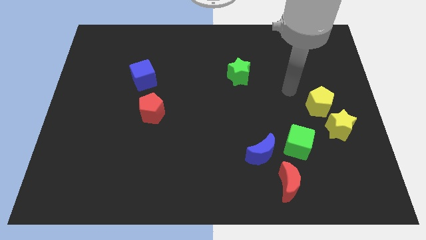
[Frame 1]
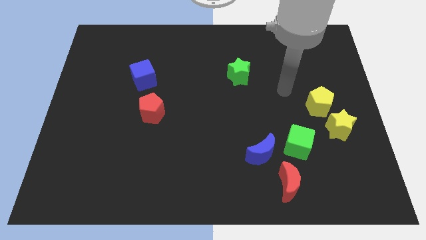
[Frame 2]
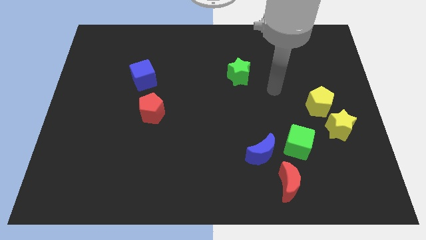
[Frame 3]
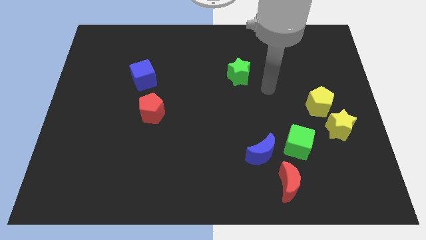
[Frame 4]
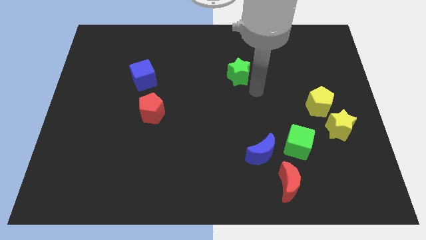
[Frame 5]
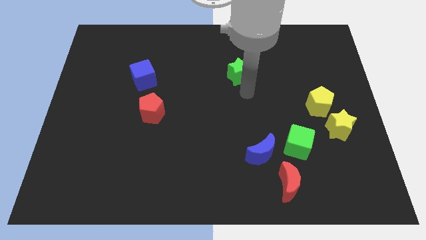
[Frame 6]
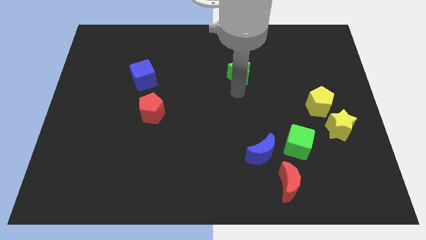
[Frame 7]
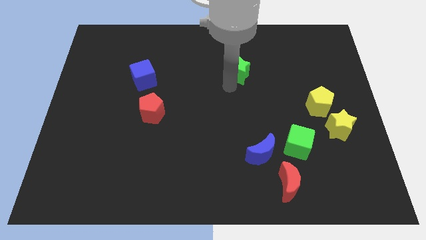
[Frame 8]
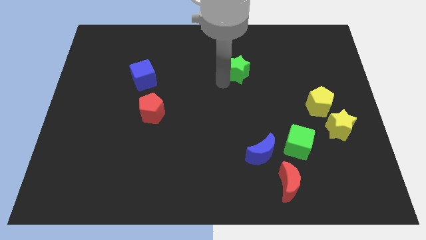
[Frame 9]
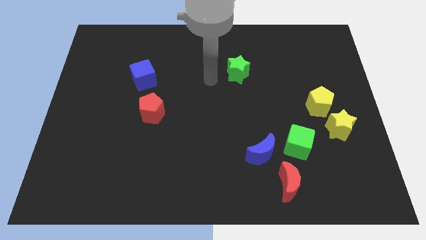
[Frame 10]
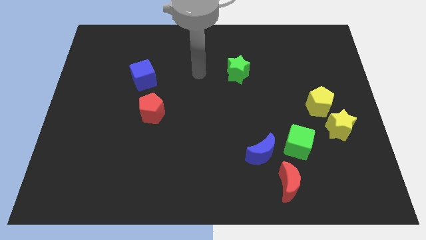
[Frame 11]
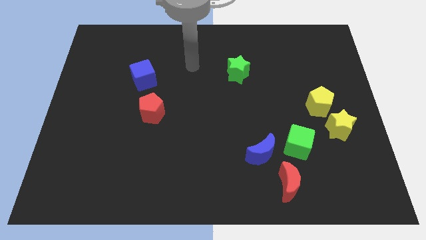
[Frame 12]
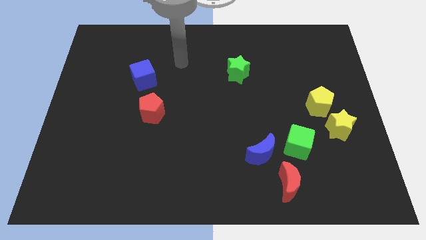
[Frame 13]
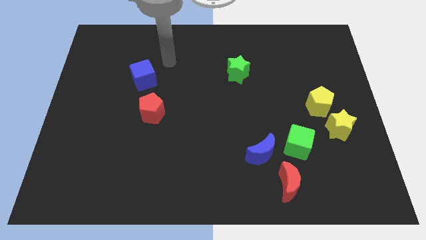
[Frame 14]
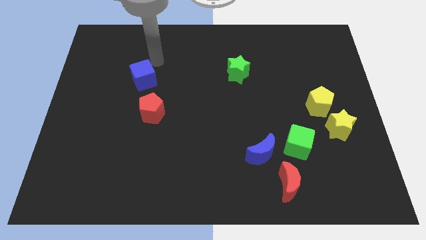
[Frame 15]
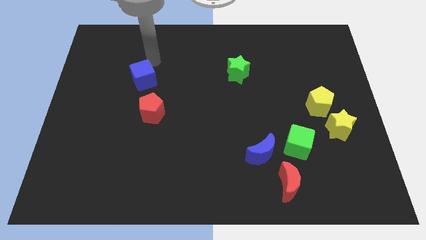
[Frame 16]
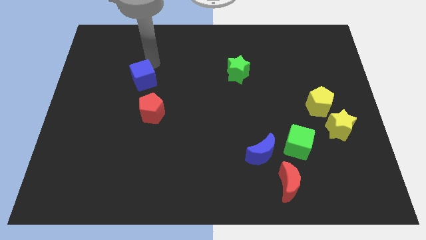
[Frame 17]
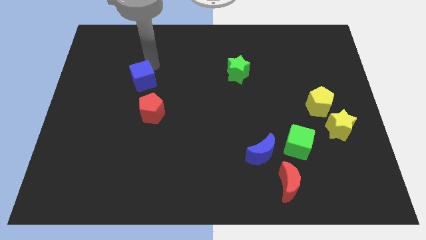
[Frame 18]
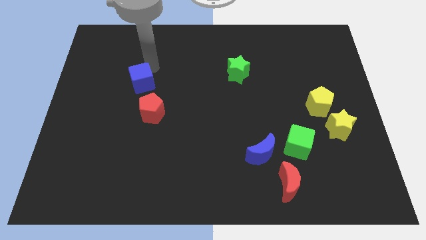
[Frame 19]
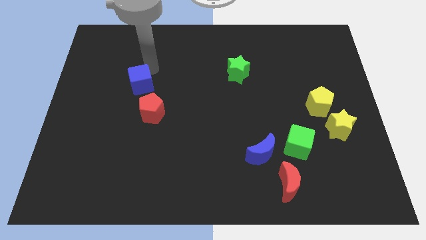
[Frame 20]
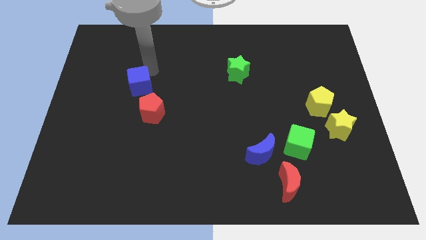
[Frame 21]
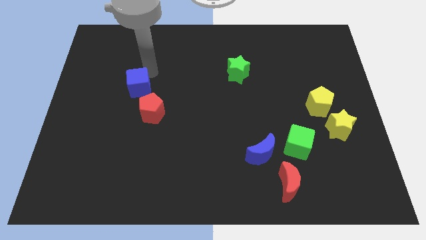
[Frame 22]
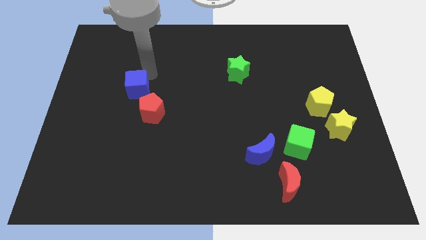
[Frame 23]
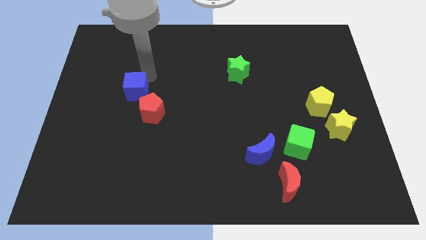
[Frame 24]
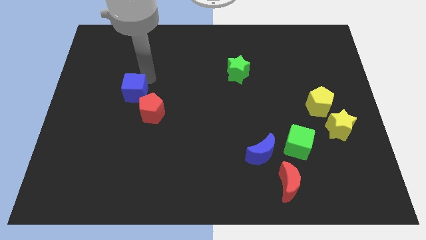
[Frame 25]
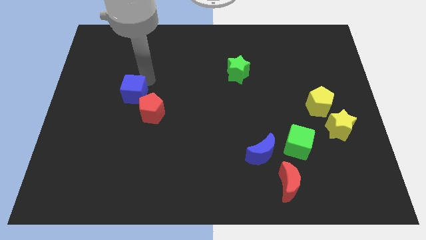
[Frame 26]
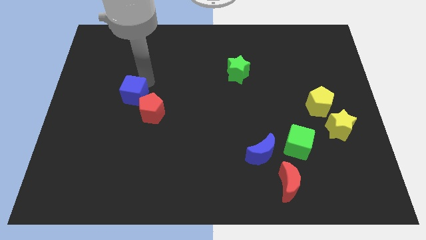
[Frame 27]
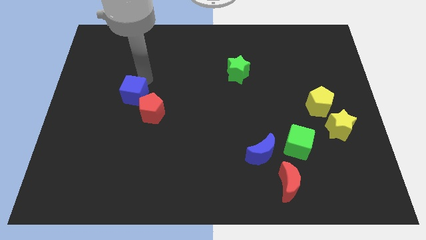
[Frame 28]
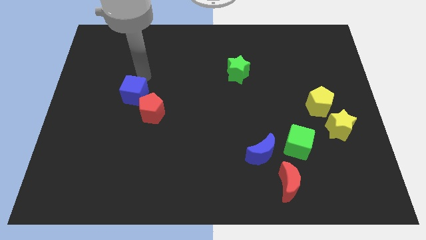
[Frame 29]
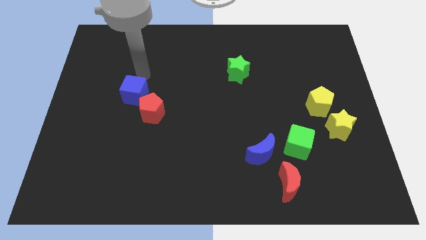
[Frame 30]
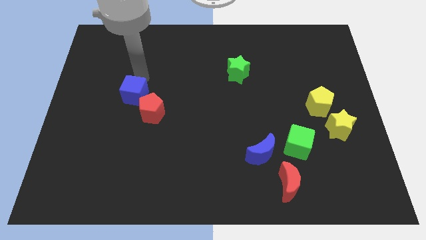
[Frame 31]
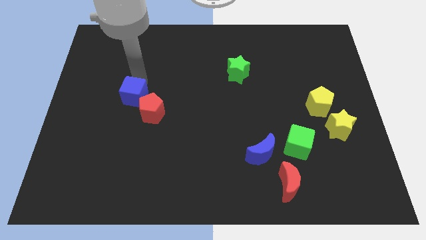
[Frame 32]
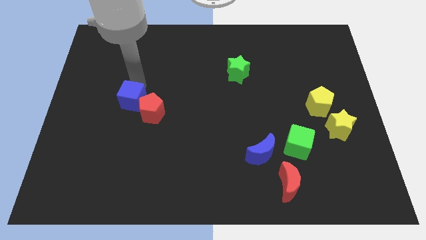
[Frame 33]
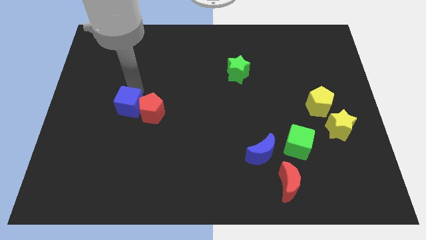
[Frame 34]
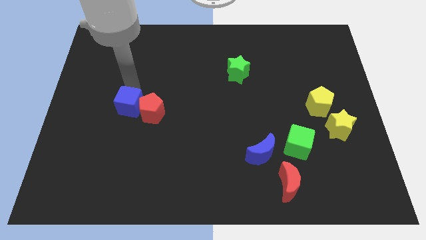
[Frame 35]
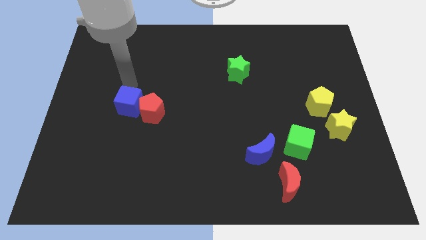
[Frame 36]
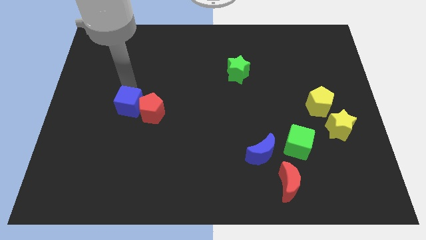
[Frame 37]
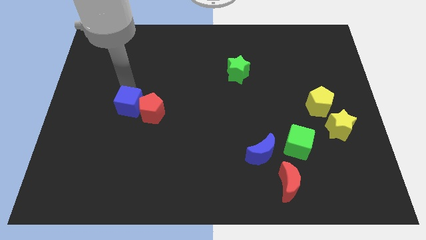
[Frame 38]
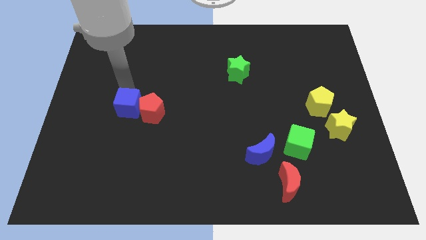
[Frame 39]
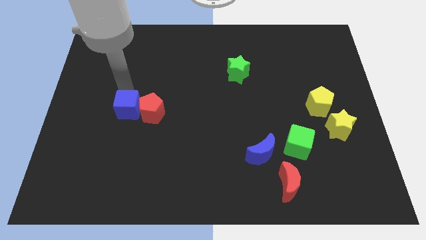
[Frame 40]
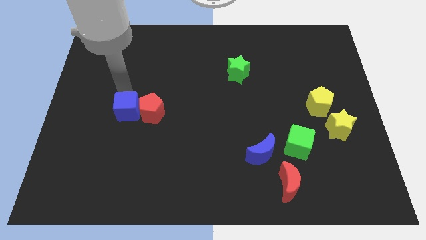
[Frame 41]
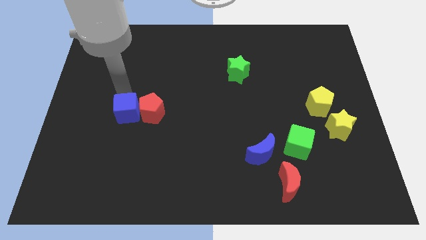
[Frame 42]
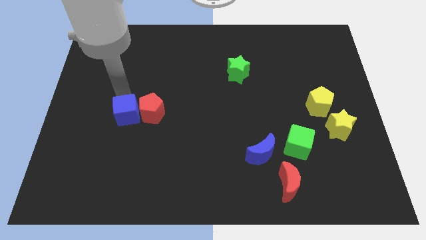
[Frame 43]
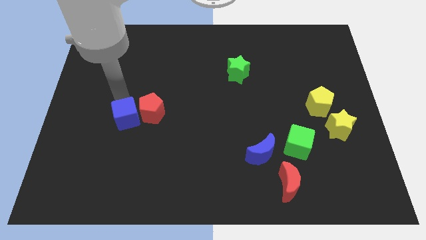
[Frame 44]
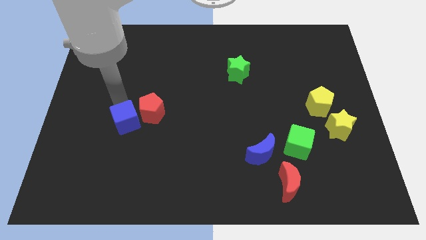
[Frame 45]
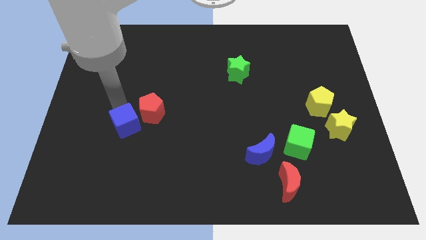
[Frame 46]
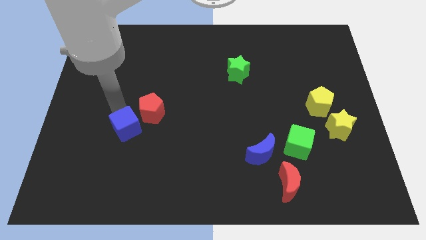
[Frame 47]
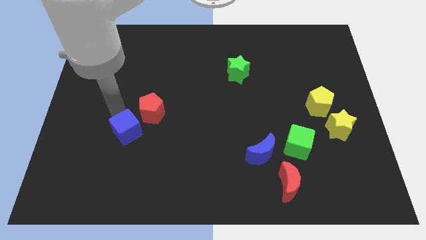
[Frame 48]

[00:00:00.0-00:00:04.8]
put the blue cube to the bottom side of the red pentagon

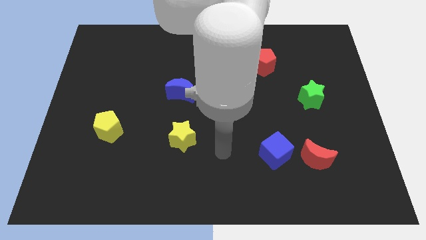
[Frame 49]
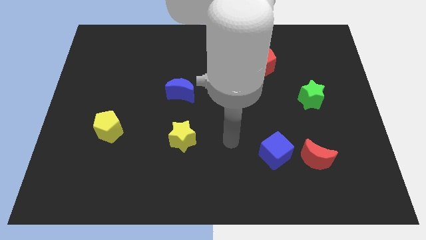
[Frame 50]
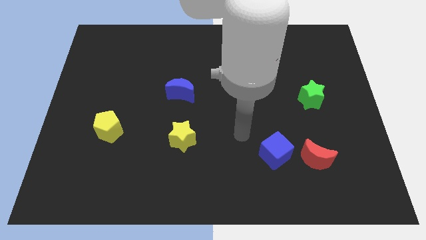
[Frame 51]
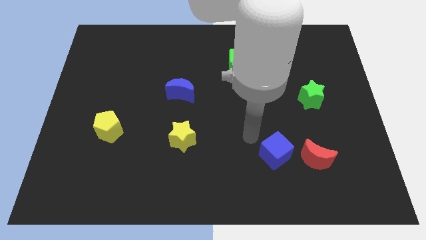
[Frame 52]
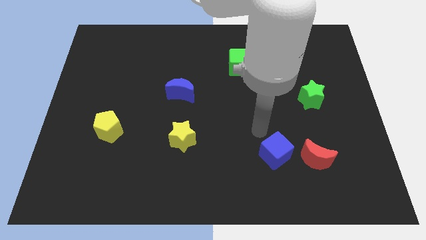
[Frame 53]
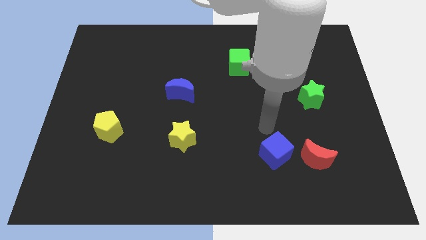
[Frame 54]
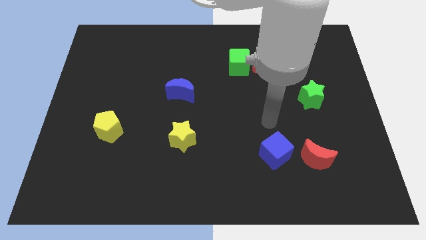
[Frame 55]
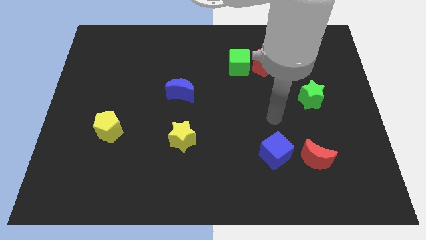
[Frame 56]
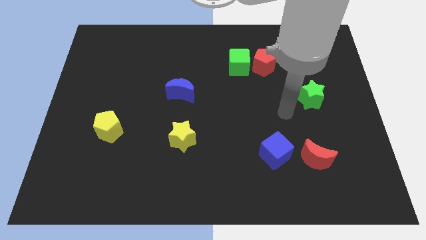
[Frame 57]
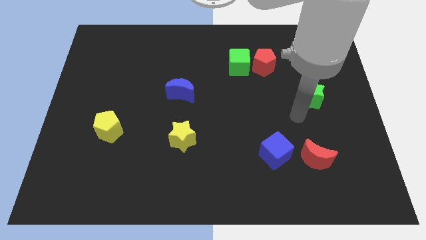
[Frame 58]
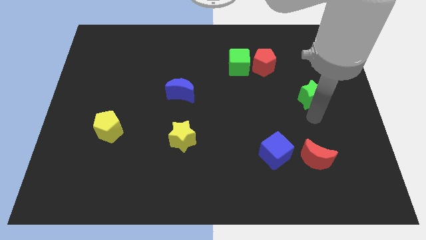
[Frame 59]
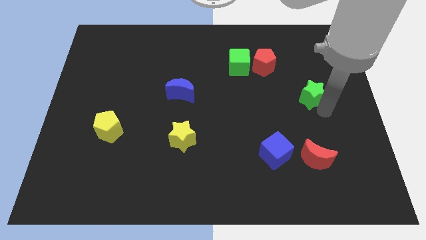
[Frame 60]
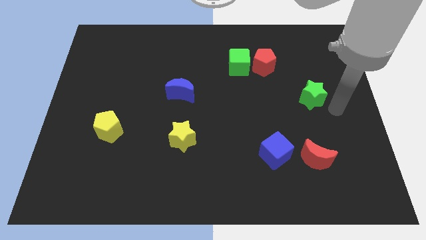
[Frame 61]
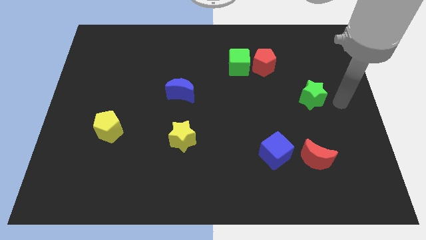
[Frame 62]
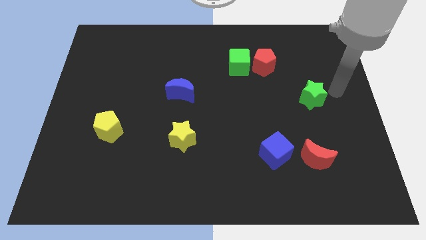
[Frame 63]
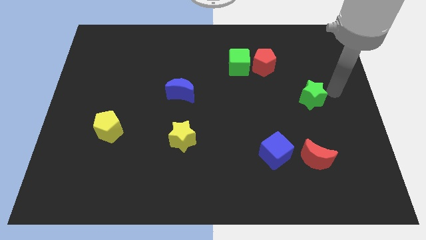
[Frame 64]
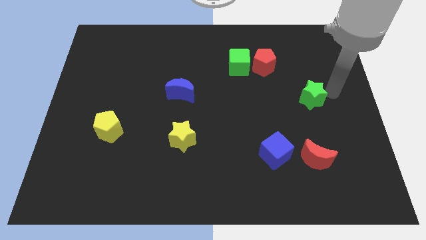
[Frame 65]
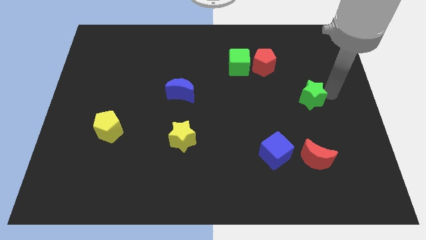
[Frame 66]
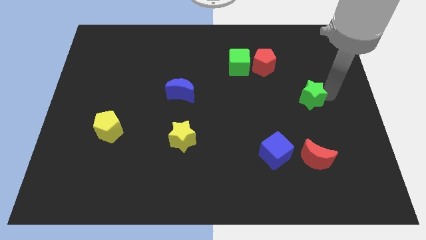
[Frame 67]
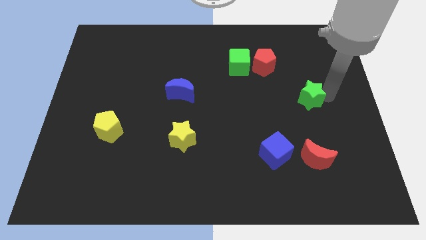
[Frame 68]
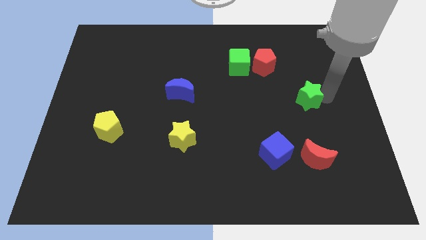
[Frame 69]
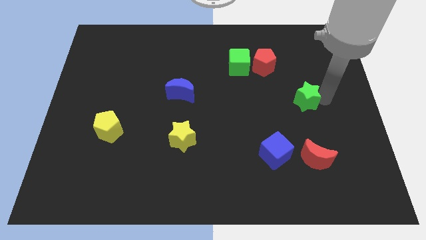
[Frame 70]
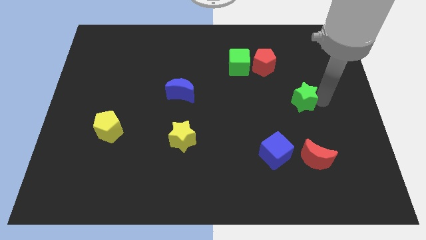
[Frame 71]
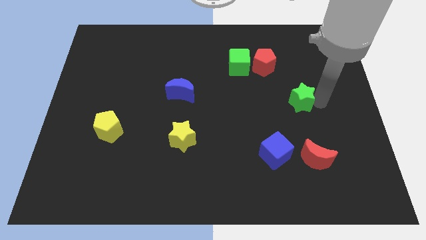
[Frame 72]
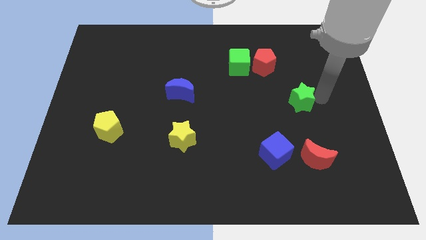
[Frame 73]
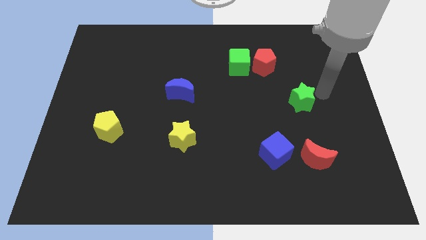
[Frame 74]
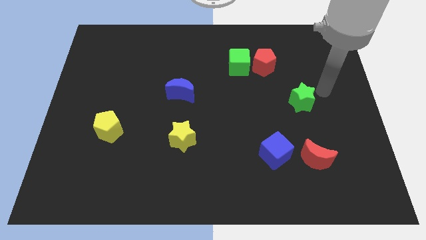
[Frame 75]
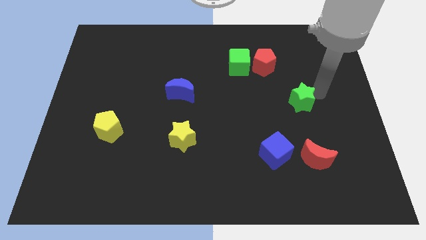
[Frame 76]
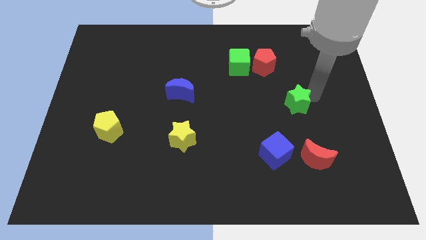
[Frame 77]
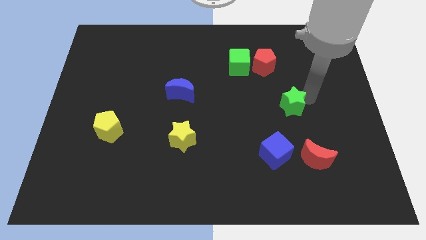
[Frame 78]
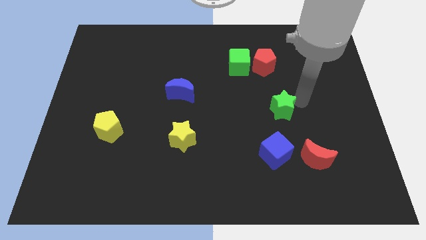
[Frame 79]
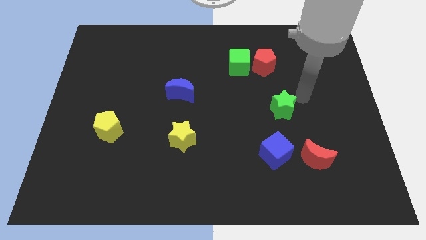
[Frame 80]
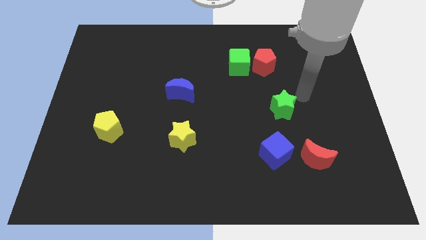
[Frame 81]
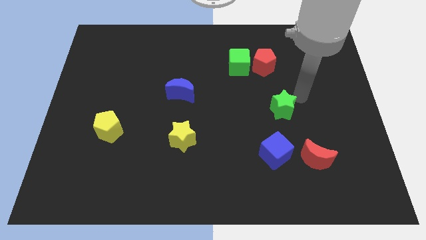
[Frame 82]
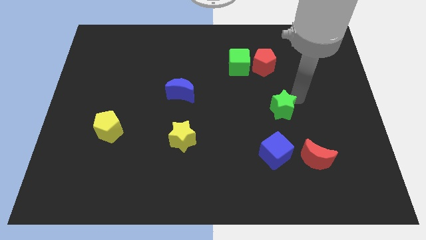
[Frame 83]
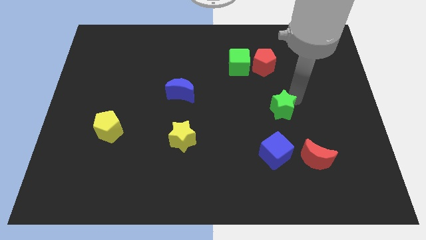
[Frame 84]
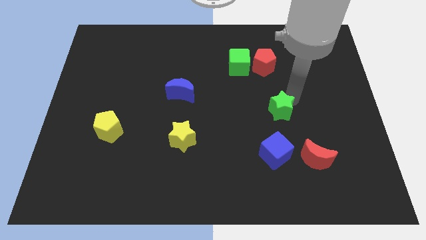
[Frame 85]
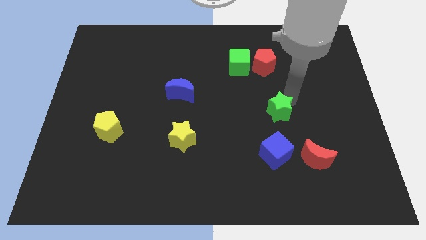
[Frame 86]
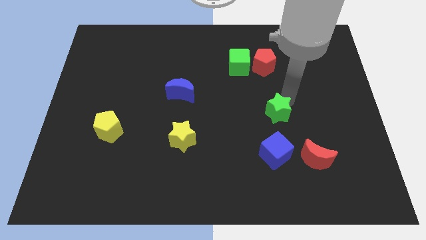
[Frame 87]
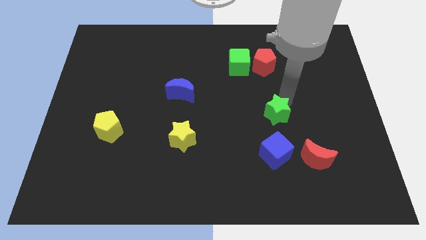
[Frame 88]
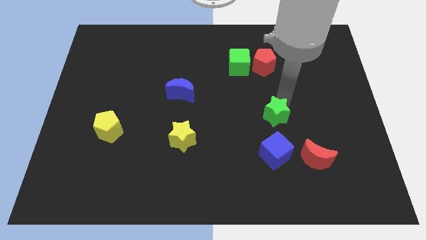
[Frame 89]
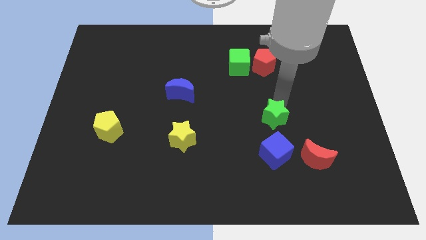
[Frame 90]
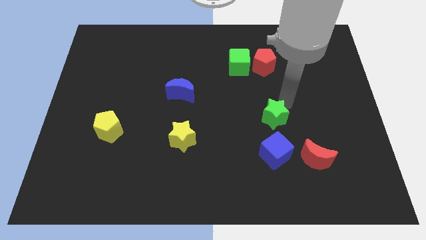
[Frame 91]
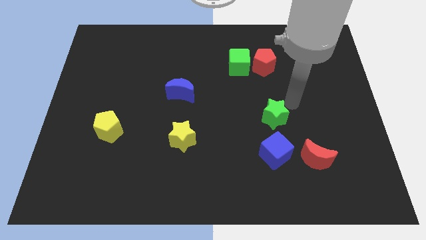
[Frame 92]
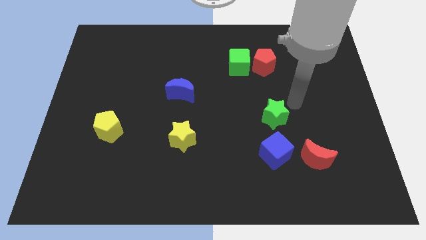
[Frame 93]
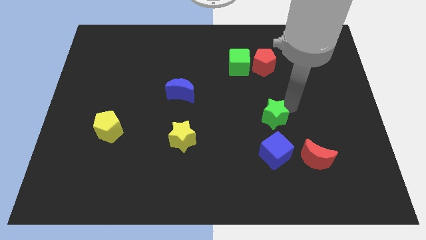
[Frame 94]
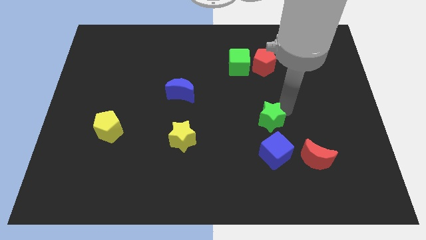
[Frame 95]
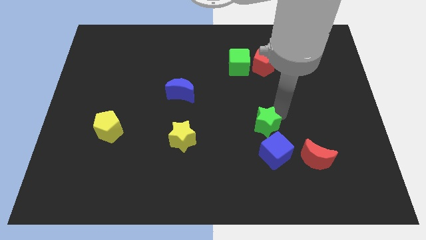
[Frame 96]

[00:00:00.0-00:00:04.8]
move the green star to the top left side of the blue cube
